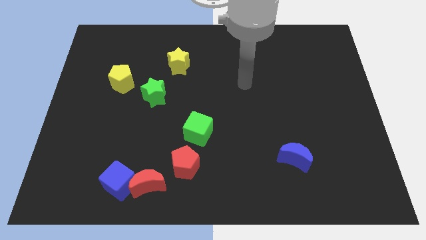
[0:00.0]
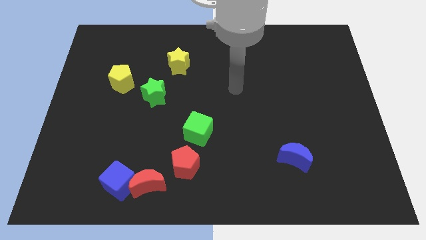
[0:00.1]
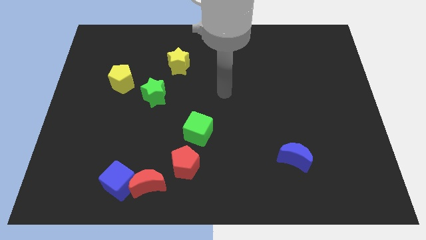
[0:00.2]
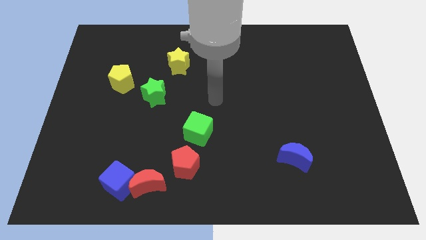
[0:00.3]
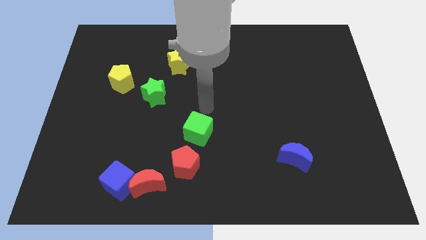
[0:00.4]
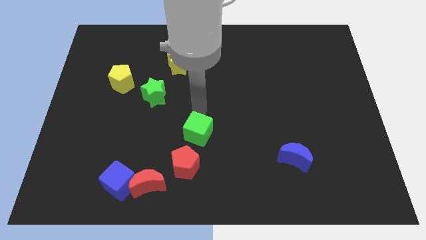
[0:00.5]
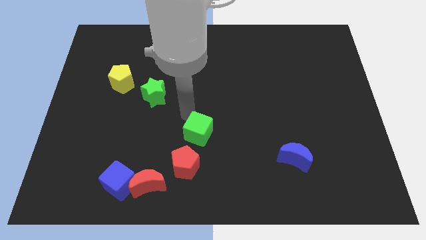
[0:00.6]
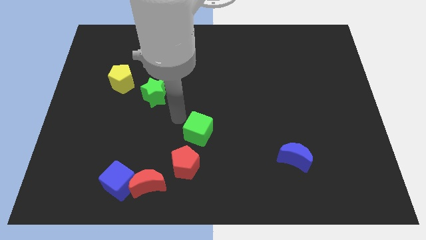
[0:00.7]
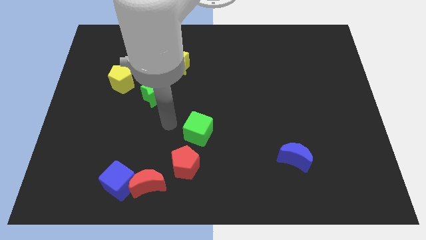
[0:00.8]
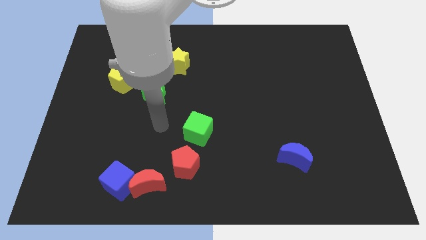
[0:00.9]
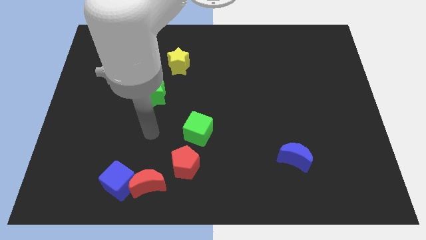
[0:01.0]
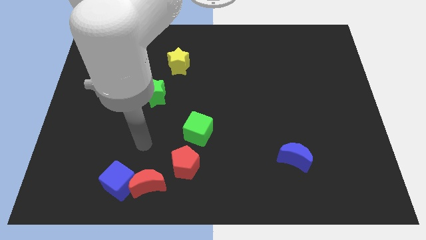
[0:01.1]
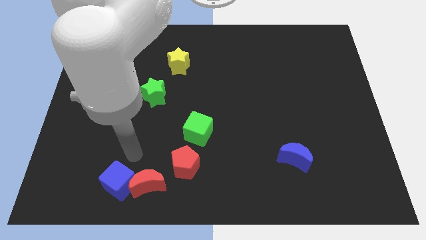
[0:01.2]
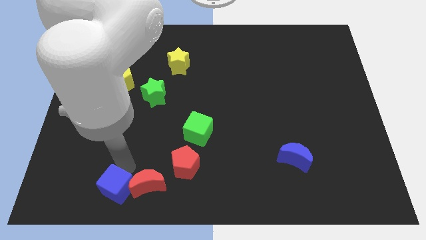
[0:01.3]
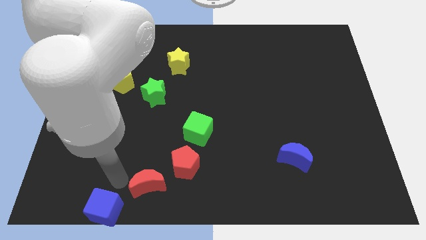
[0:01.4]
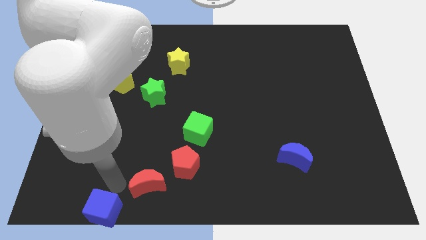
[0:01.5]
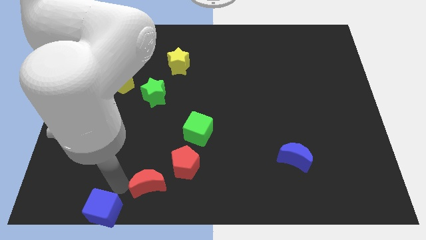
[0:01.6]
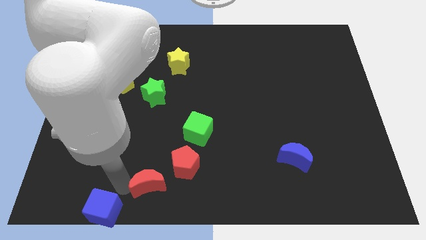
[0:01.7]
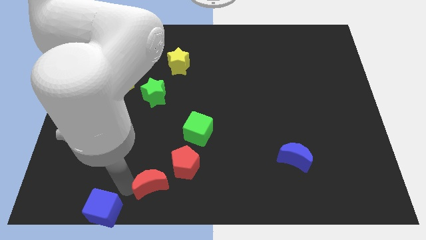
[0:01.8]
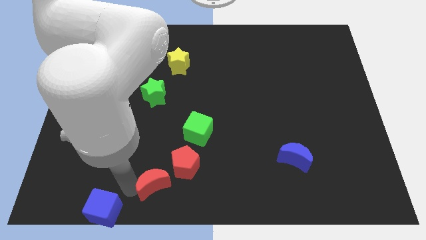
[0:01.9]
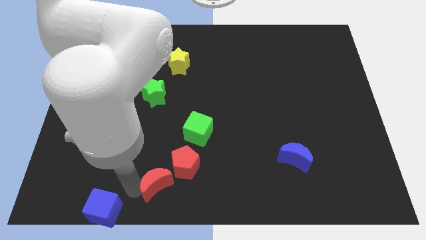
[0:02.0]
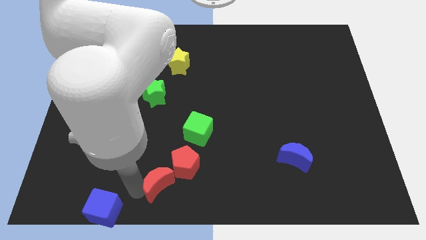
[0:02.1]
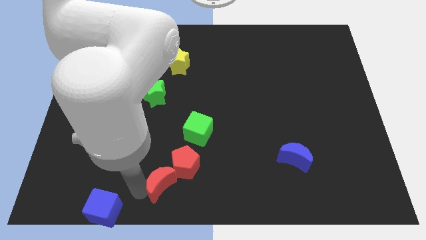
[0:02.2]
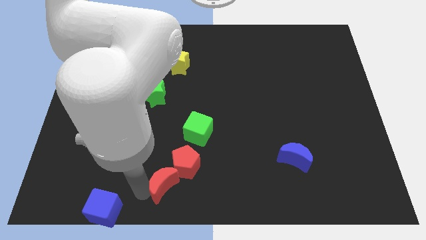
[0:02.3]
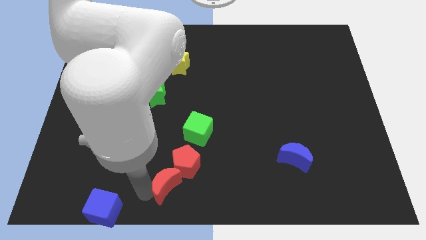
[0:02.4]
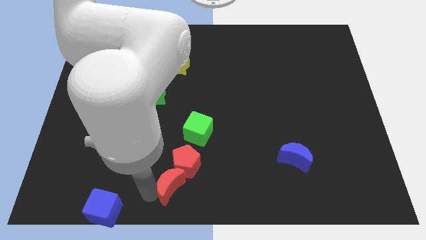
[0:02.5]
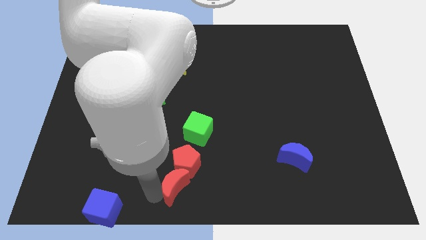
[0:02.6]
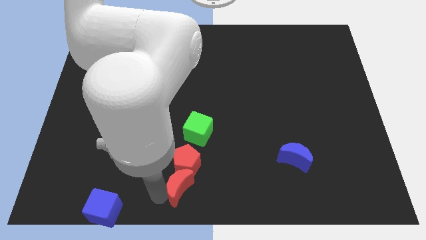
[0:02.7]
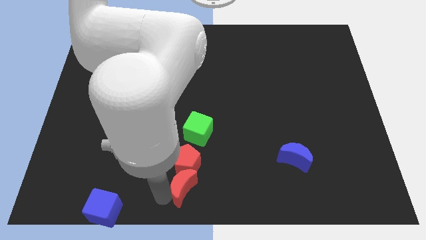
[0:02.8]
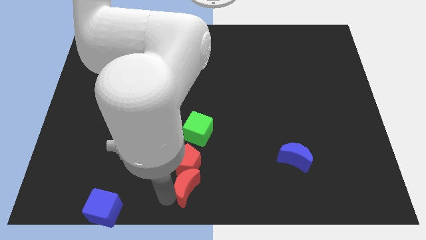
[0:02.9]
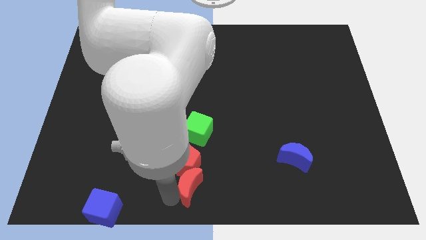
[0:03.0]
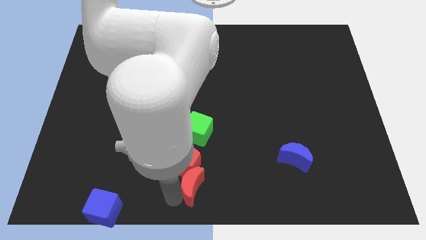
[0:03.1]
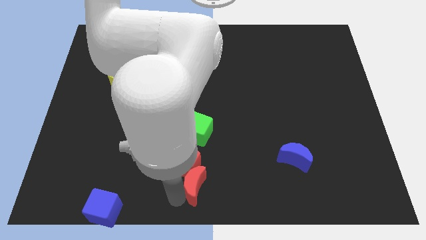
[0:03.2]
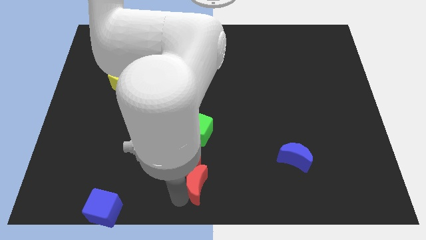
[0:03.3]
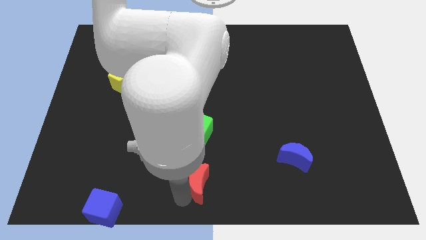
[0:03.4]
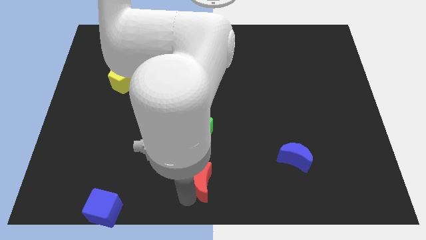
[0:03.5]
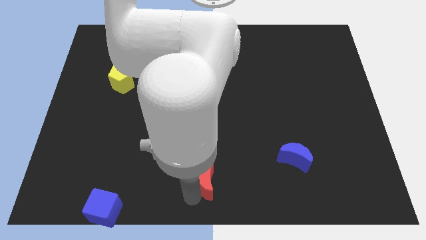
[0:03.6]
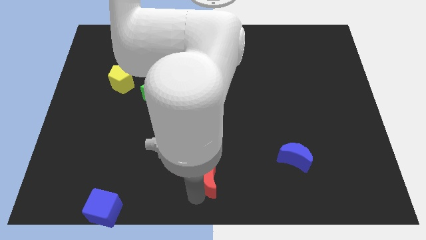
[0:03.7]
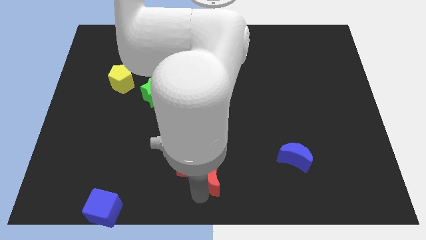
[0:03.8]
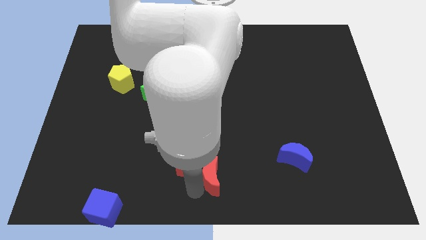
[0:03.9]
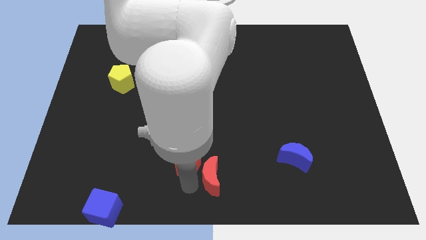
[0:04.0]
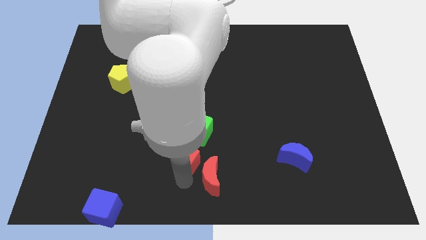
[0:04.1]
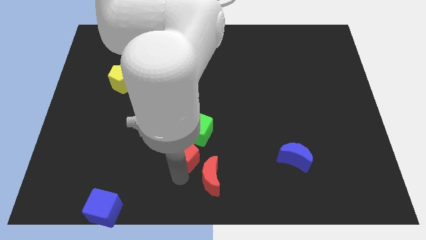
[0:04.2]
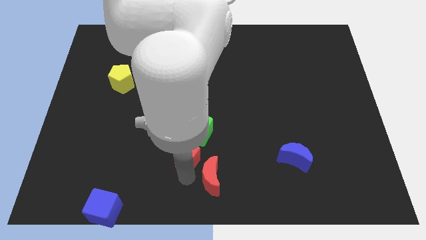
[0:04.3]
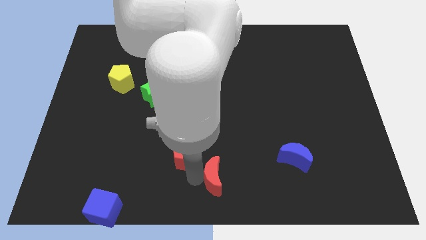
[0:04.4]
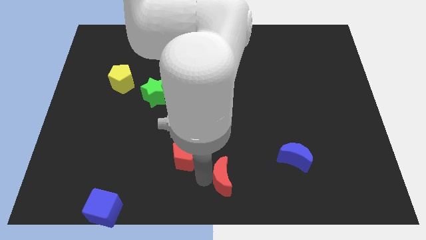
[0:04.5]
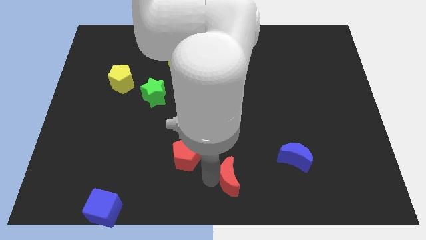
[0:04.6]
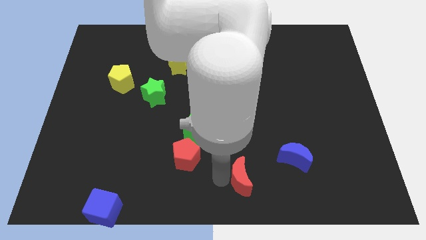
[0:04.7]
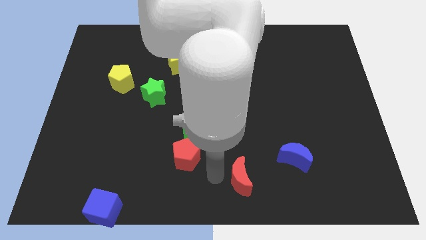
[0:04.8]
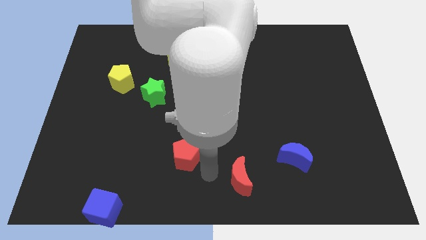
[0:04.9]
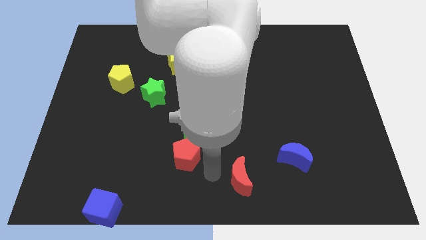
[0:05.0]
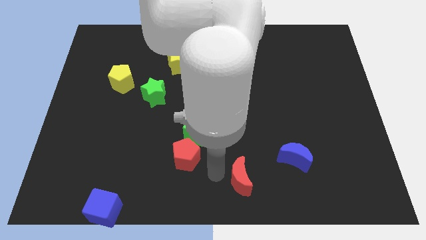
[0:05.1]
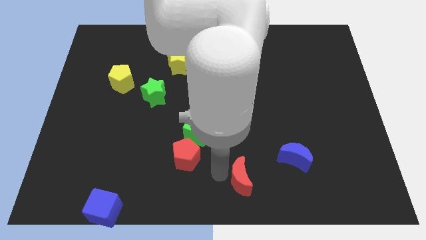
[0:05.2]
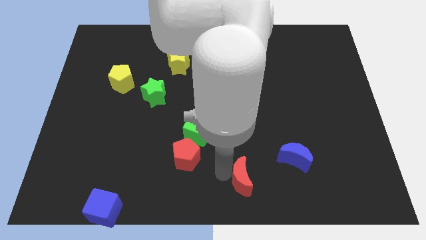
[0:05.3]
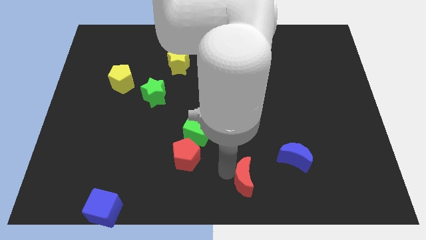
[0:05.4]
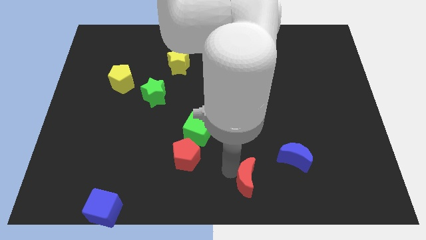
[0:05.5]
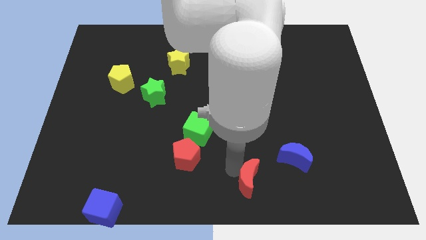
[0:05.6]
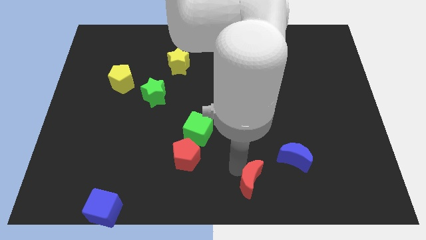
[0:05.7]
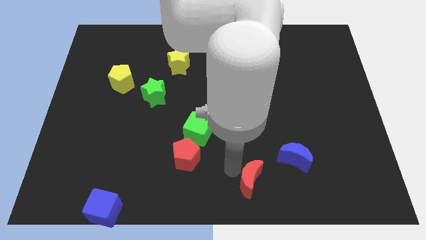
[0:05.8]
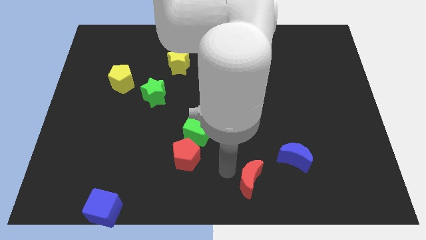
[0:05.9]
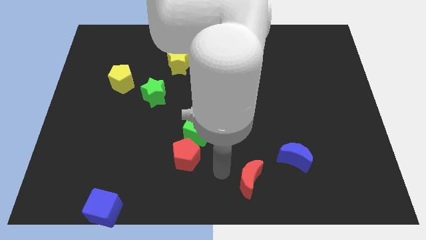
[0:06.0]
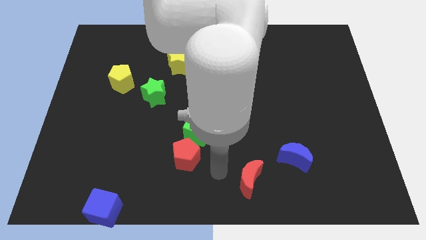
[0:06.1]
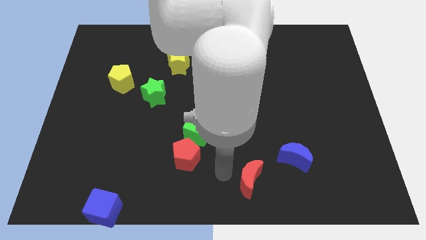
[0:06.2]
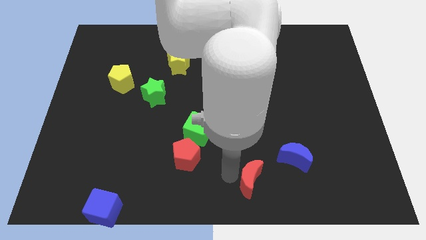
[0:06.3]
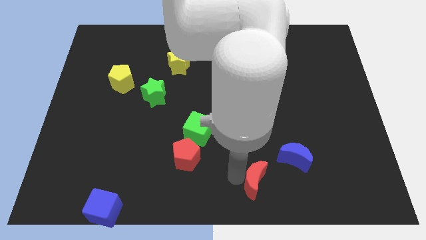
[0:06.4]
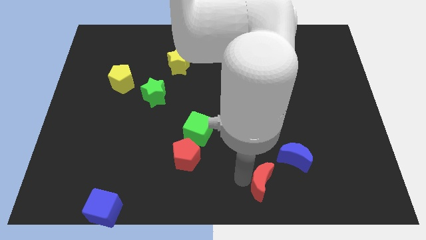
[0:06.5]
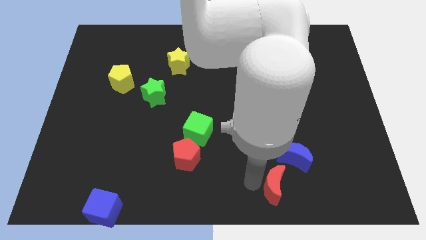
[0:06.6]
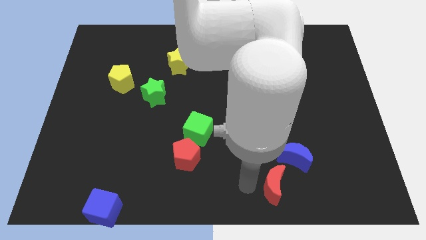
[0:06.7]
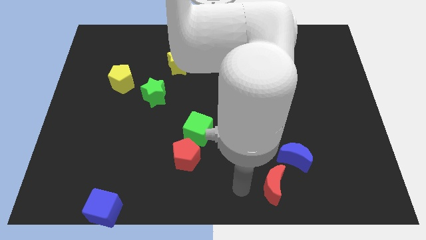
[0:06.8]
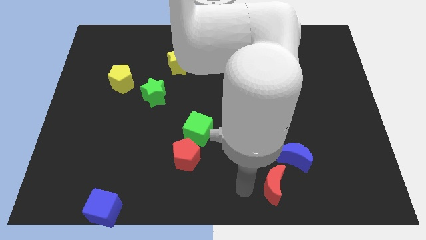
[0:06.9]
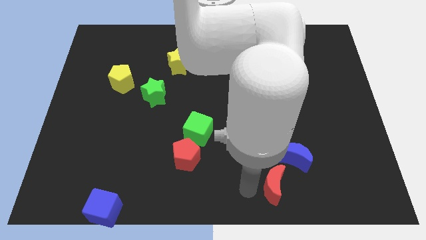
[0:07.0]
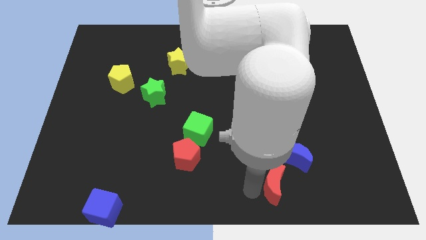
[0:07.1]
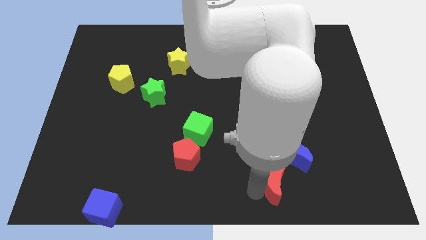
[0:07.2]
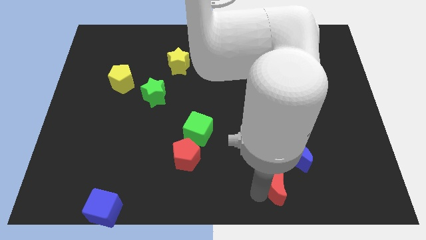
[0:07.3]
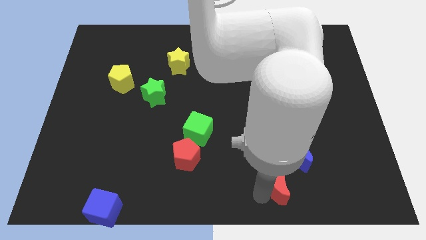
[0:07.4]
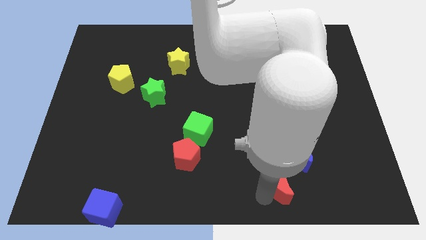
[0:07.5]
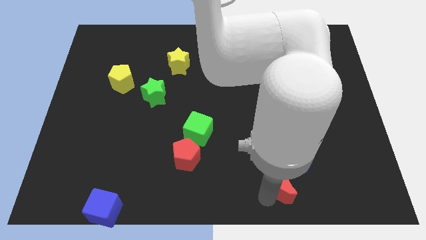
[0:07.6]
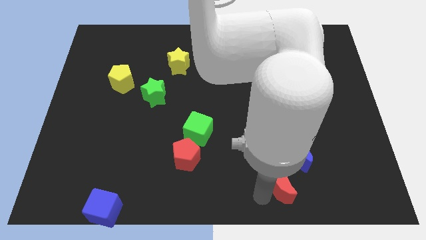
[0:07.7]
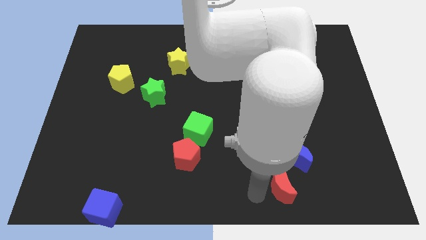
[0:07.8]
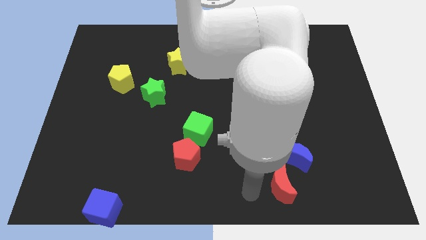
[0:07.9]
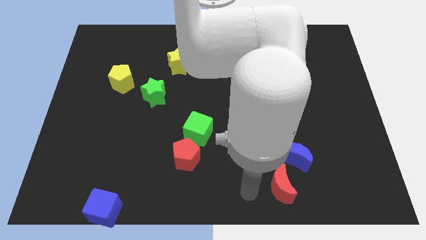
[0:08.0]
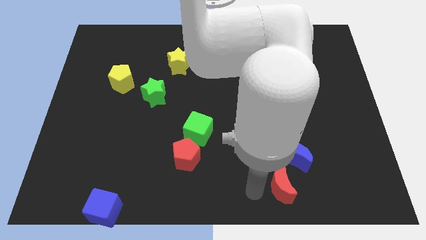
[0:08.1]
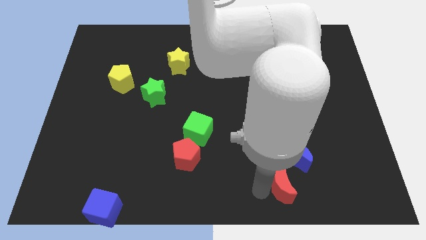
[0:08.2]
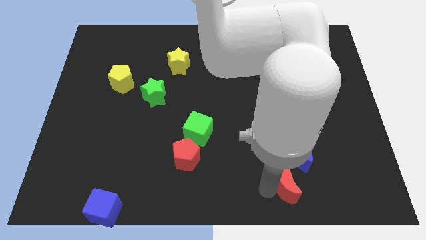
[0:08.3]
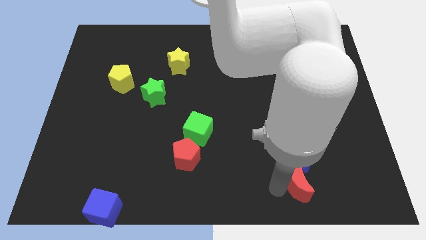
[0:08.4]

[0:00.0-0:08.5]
slide the red moon to the bottom right of the blue moon
